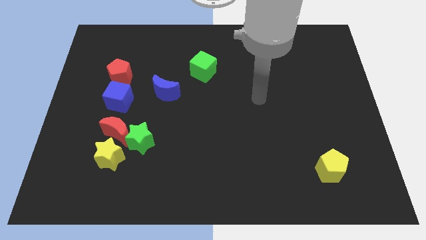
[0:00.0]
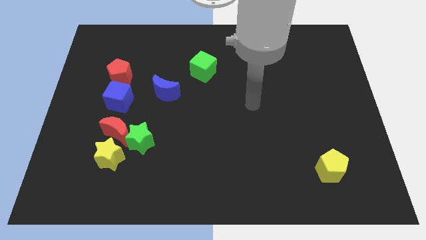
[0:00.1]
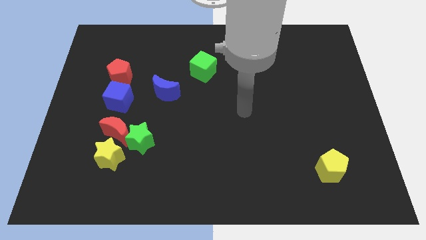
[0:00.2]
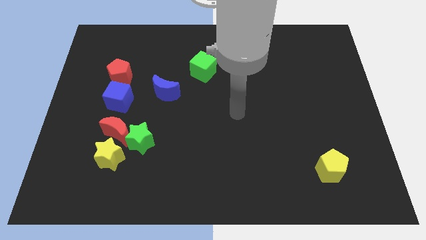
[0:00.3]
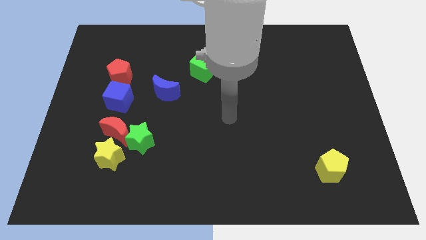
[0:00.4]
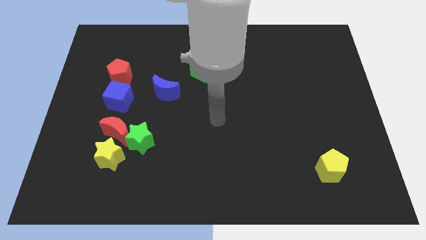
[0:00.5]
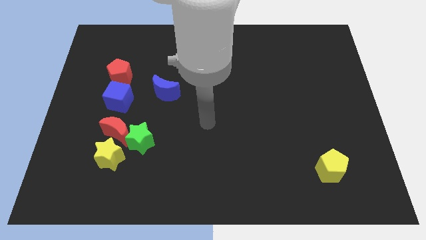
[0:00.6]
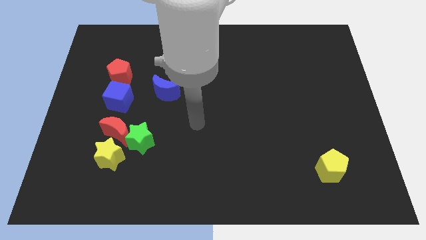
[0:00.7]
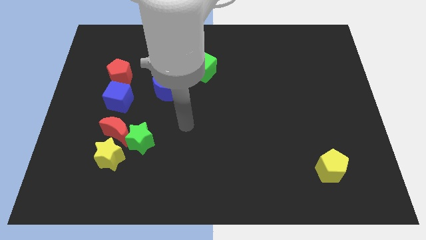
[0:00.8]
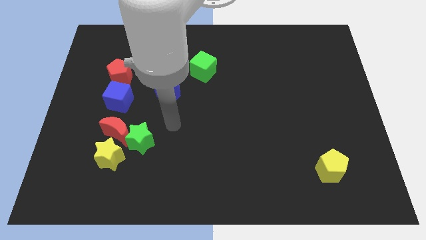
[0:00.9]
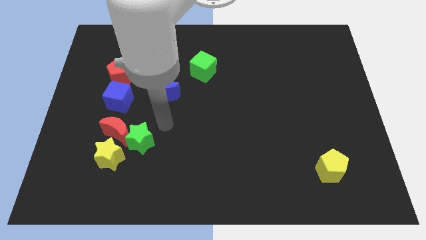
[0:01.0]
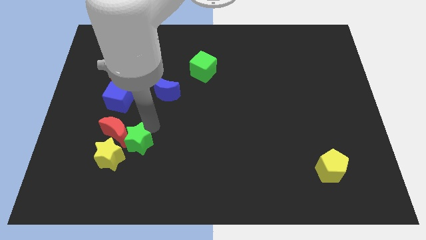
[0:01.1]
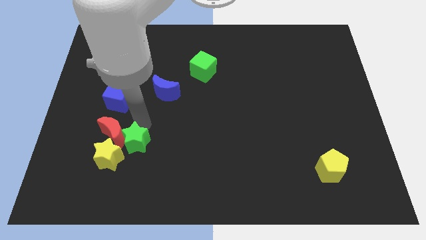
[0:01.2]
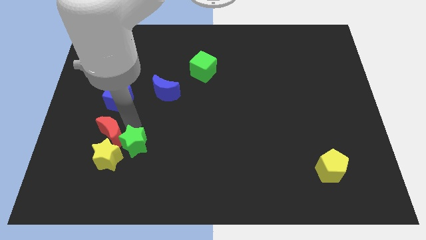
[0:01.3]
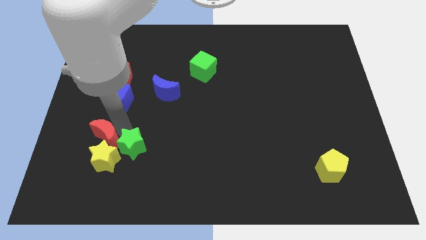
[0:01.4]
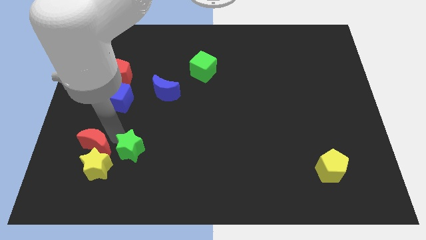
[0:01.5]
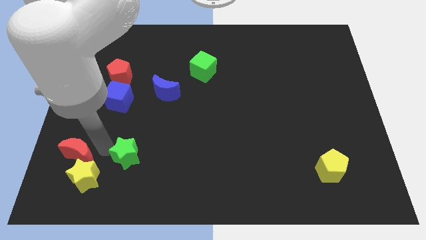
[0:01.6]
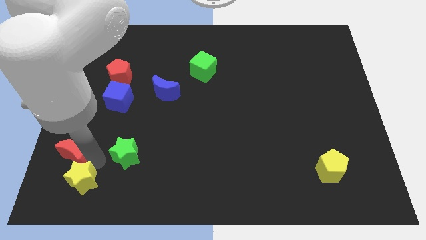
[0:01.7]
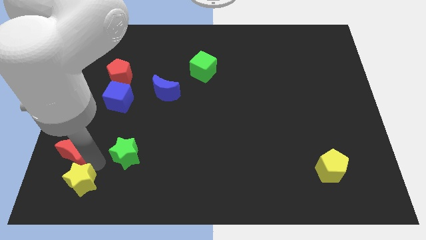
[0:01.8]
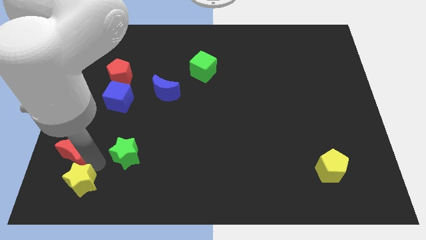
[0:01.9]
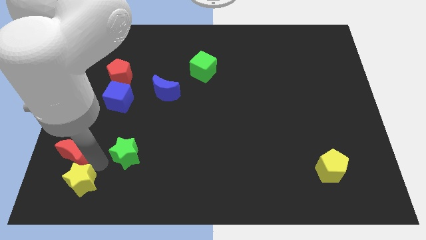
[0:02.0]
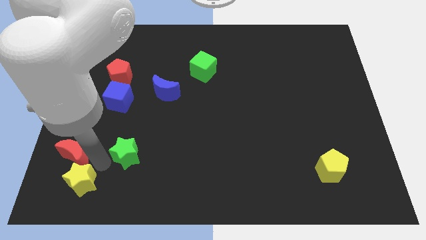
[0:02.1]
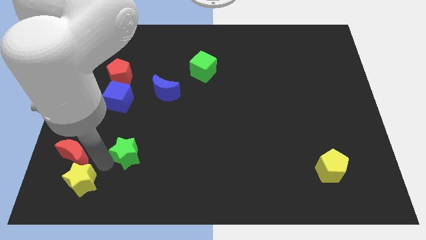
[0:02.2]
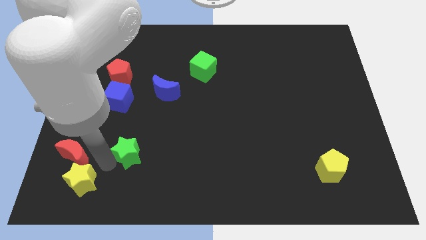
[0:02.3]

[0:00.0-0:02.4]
pull the green star apart from the red moon and yellow star

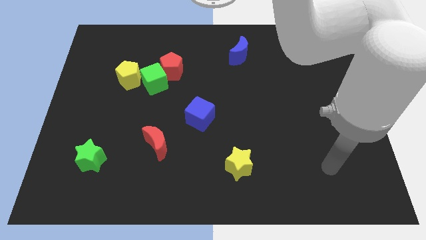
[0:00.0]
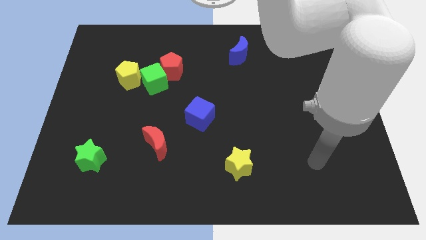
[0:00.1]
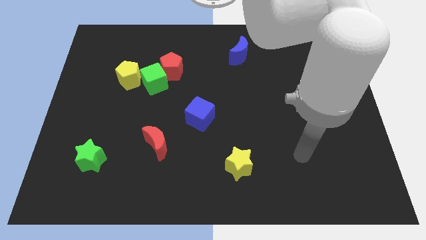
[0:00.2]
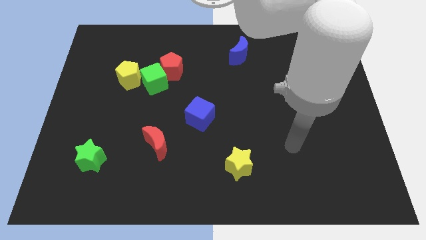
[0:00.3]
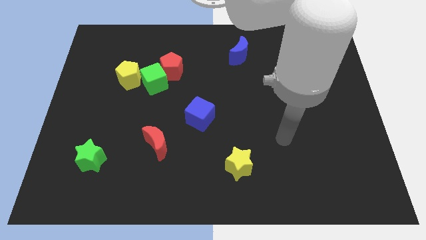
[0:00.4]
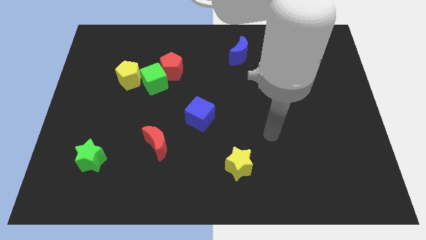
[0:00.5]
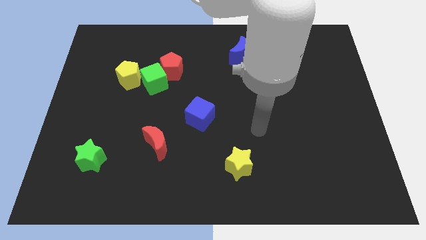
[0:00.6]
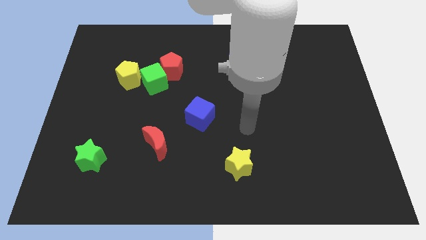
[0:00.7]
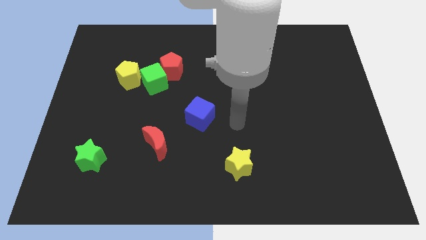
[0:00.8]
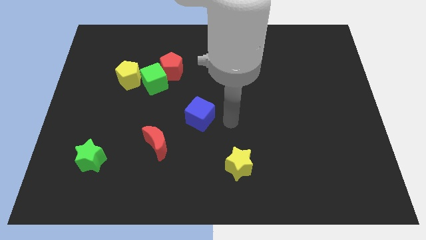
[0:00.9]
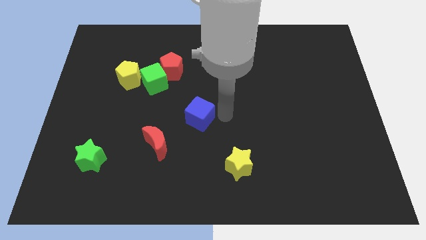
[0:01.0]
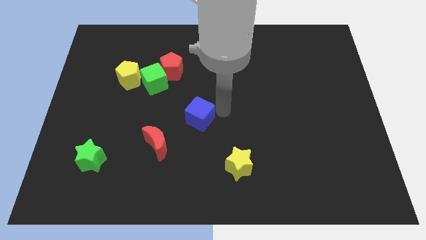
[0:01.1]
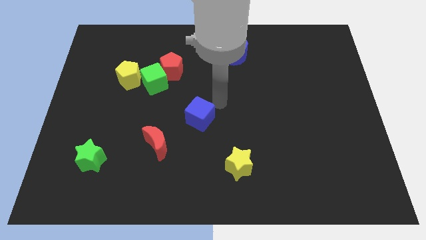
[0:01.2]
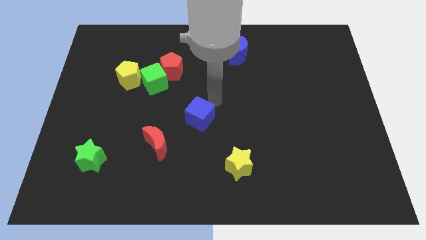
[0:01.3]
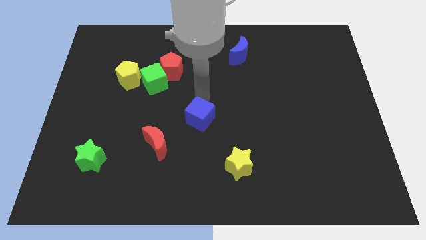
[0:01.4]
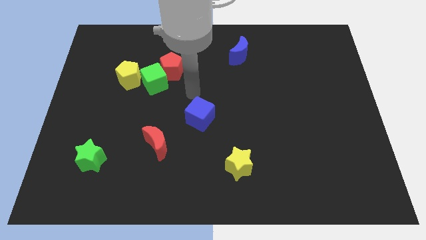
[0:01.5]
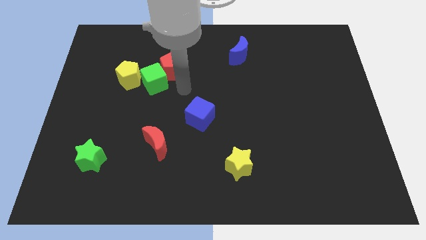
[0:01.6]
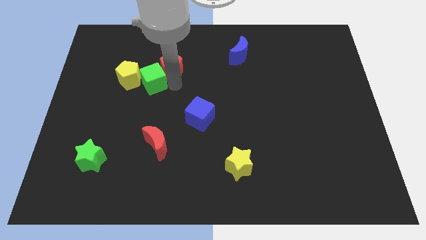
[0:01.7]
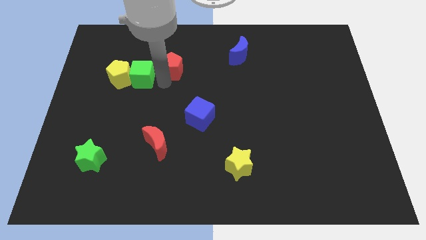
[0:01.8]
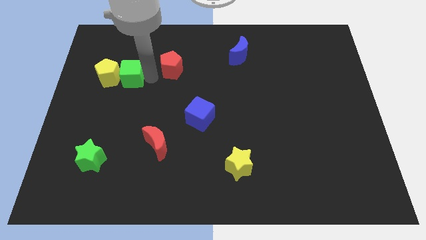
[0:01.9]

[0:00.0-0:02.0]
pull the red pentagon apart from the green cube

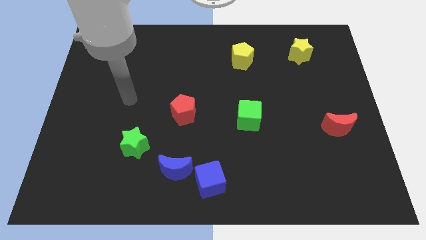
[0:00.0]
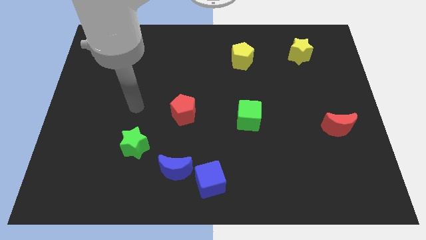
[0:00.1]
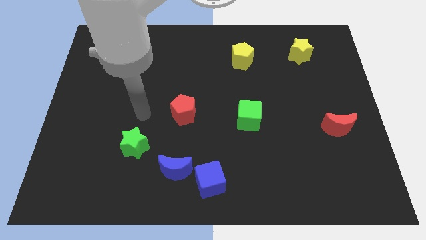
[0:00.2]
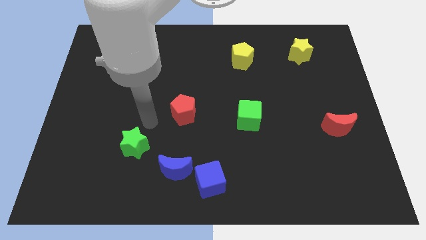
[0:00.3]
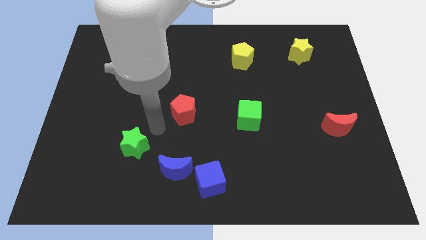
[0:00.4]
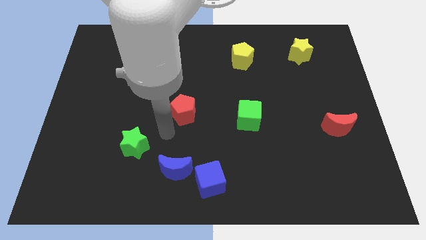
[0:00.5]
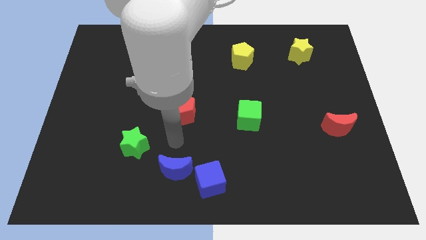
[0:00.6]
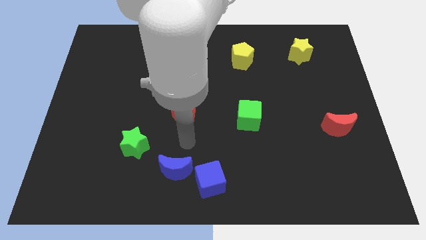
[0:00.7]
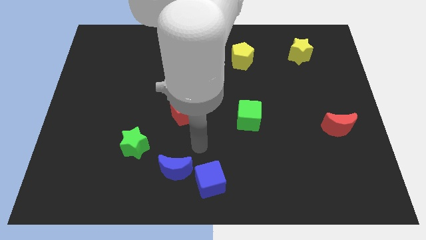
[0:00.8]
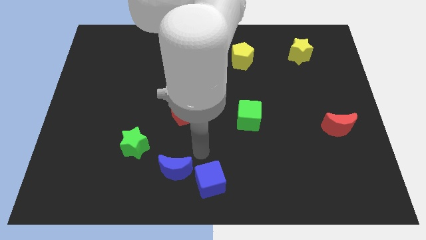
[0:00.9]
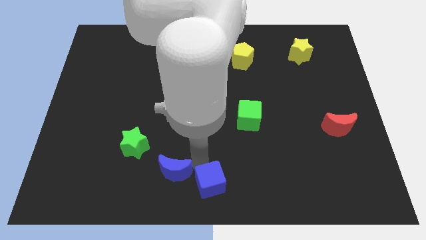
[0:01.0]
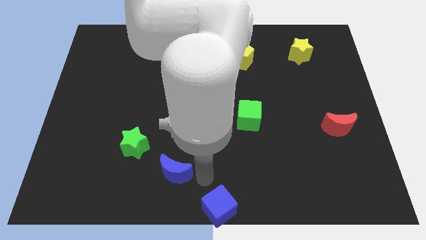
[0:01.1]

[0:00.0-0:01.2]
pull the blue moon apart from the blue cube

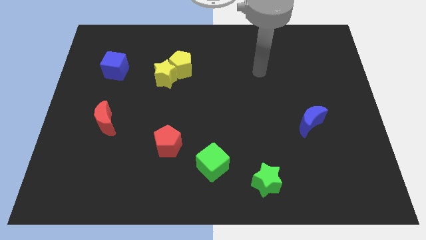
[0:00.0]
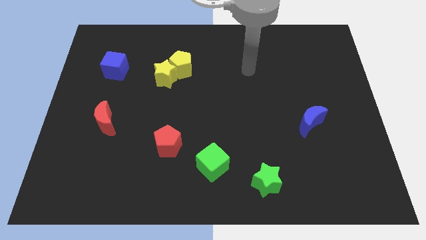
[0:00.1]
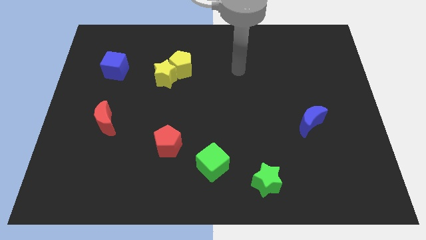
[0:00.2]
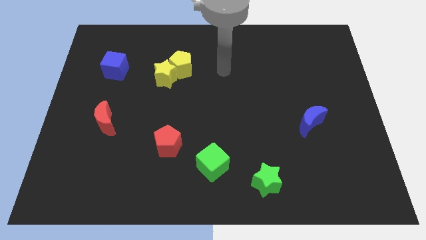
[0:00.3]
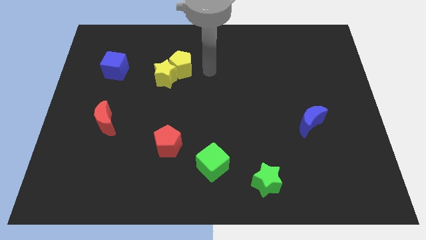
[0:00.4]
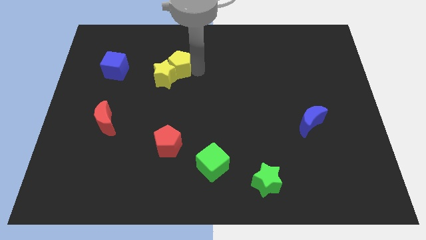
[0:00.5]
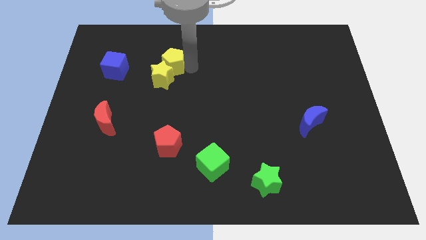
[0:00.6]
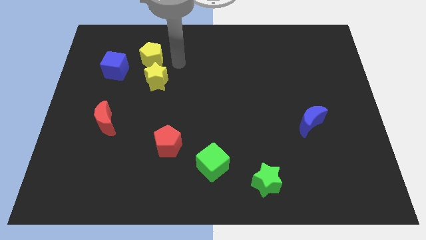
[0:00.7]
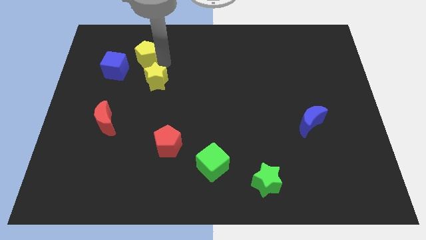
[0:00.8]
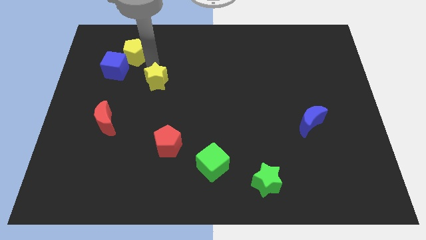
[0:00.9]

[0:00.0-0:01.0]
move the yellow star away from the yellow pentagon

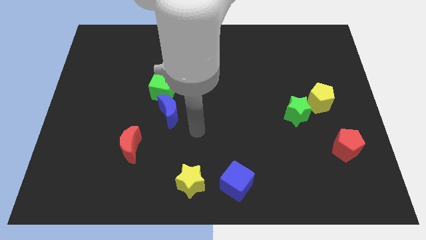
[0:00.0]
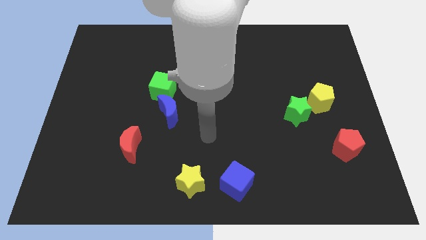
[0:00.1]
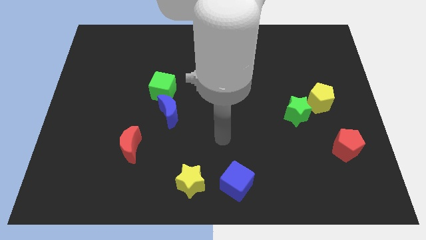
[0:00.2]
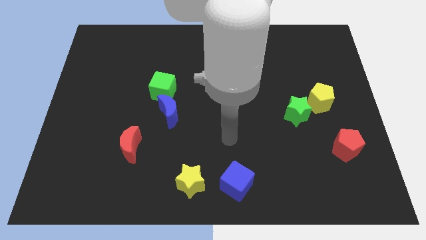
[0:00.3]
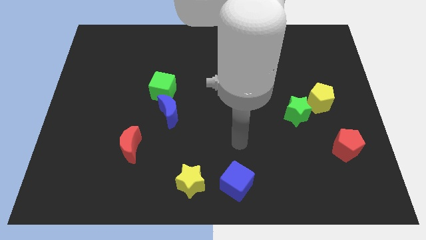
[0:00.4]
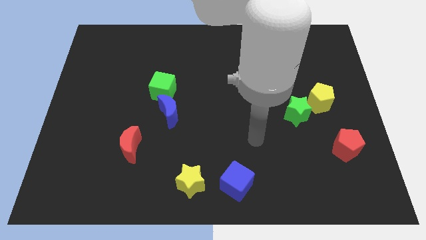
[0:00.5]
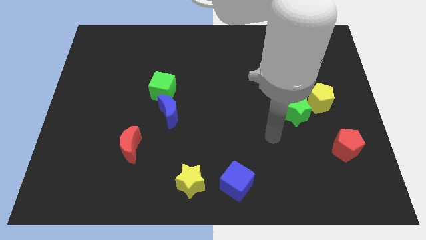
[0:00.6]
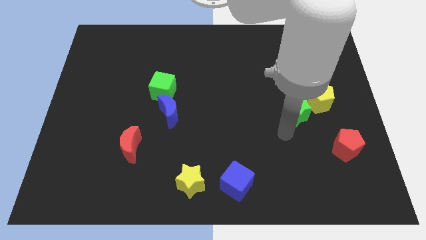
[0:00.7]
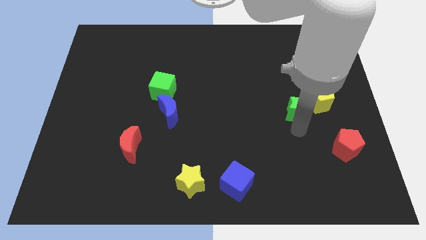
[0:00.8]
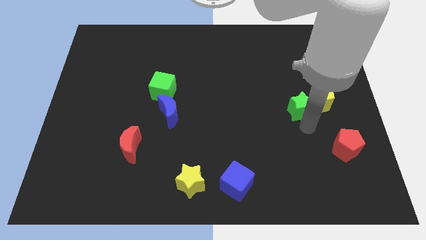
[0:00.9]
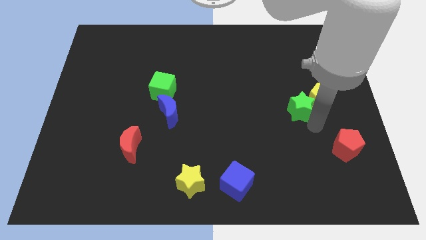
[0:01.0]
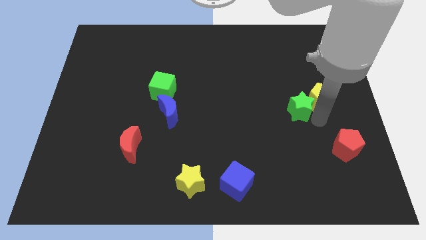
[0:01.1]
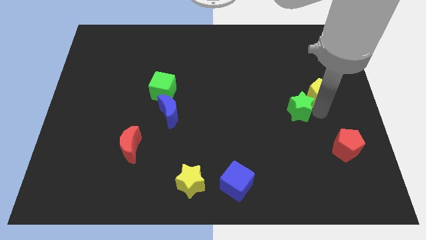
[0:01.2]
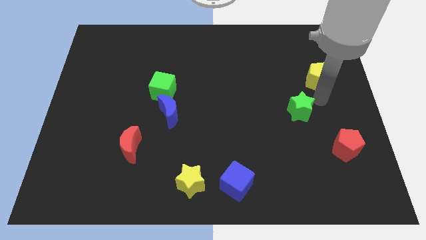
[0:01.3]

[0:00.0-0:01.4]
separate the green star from the yellow pentagon

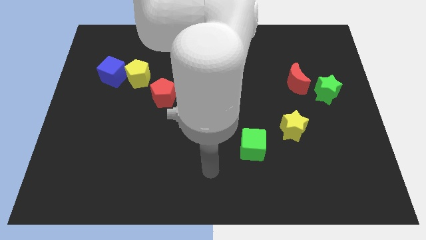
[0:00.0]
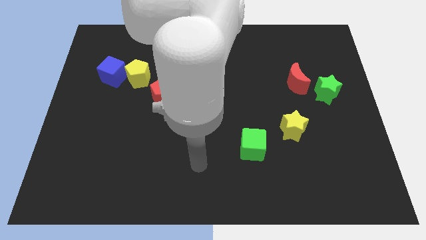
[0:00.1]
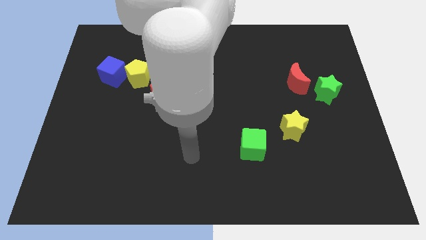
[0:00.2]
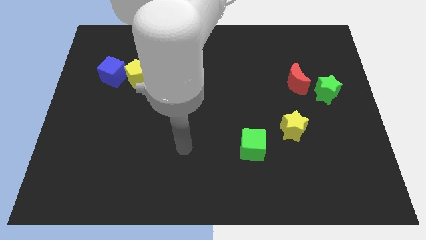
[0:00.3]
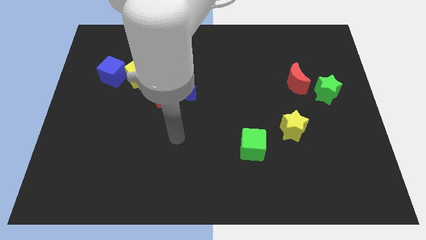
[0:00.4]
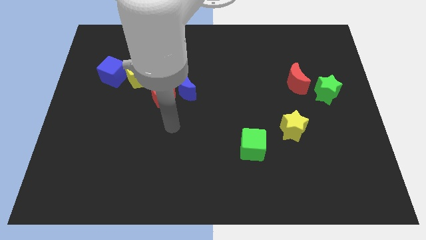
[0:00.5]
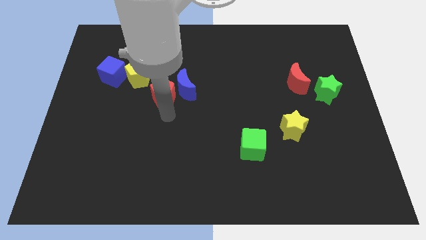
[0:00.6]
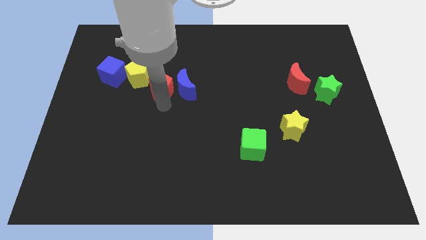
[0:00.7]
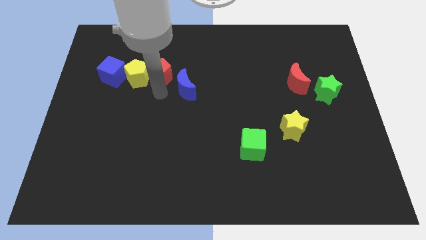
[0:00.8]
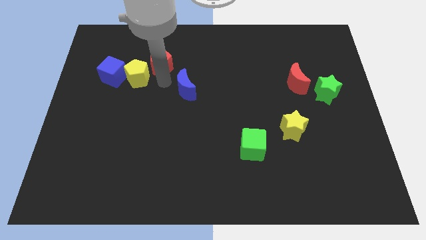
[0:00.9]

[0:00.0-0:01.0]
move the blue moon away from the red pentagon

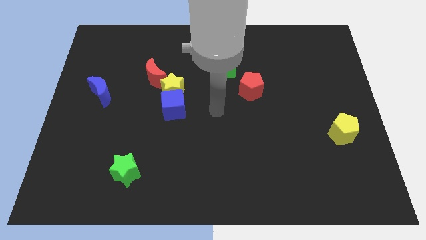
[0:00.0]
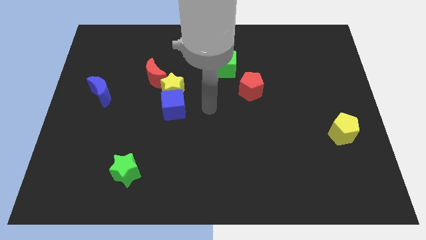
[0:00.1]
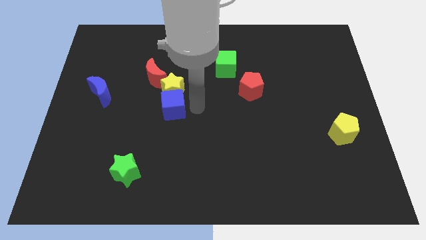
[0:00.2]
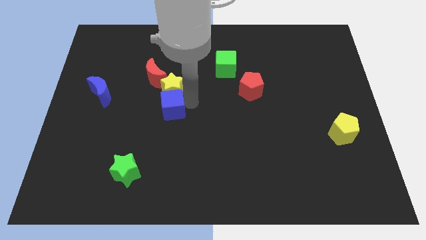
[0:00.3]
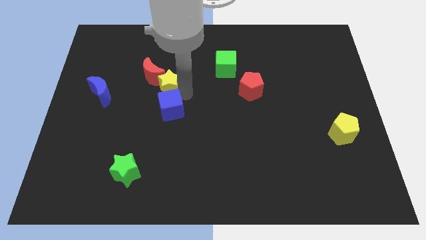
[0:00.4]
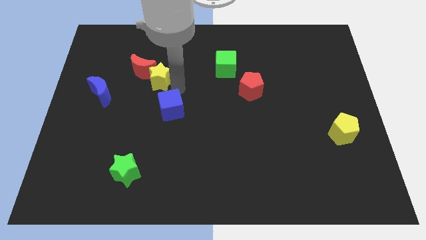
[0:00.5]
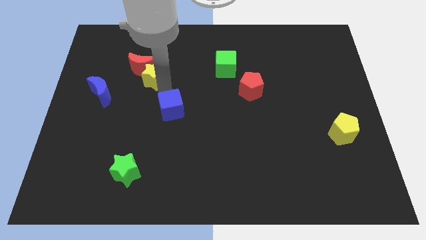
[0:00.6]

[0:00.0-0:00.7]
pull the blue cube apart from the yellow star
